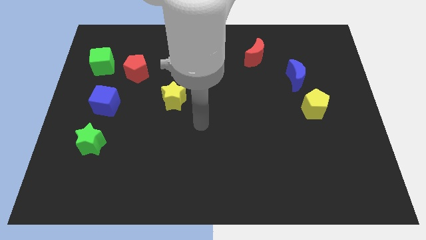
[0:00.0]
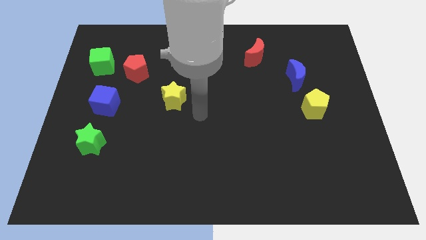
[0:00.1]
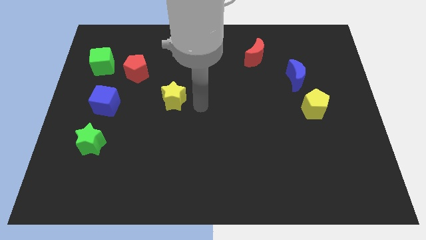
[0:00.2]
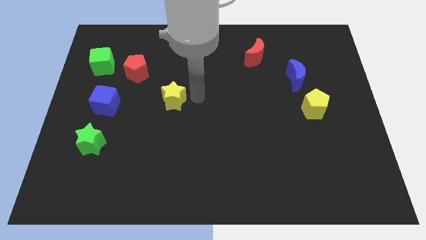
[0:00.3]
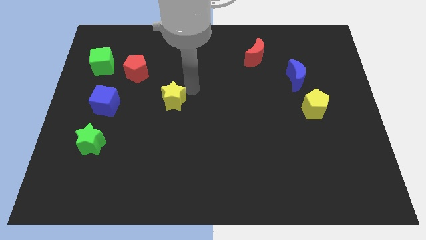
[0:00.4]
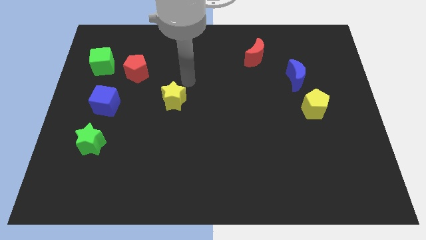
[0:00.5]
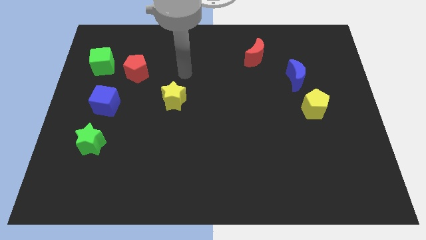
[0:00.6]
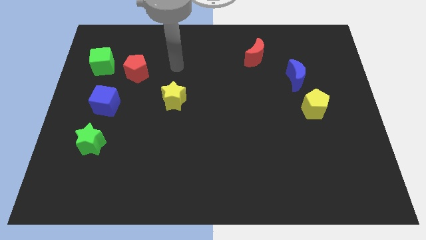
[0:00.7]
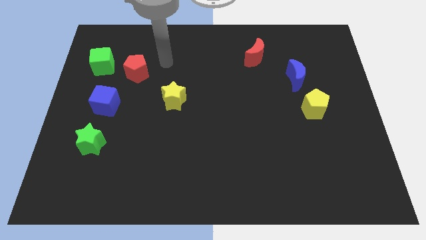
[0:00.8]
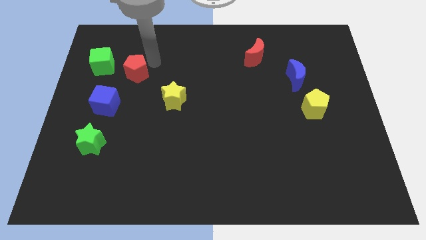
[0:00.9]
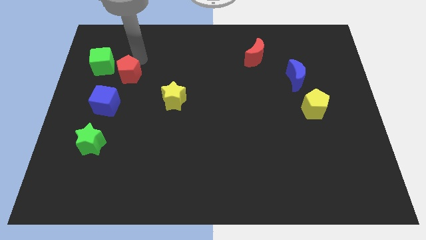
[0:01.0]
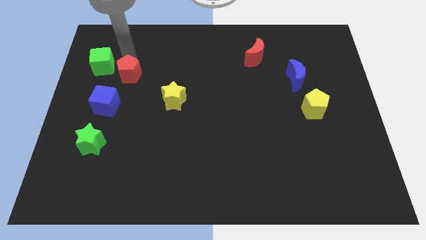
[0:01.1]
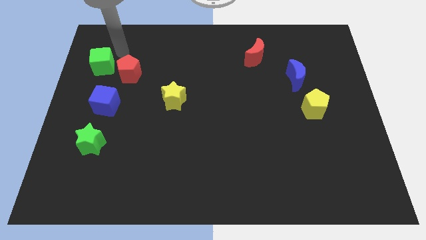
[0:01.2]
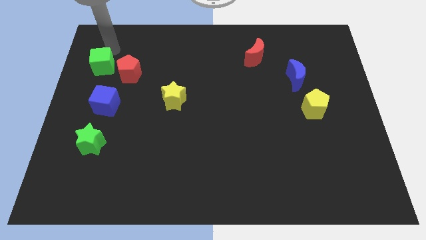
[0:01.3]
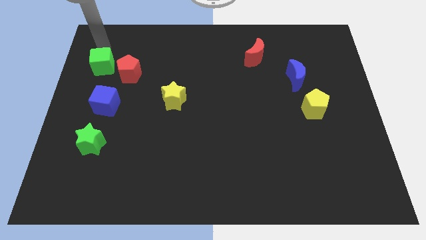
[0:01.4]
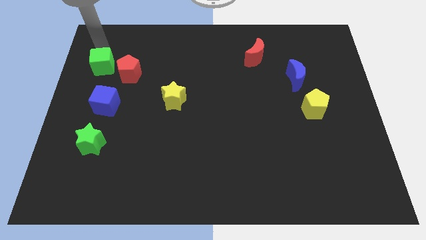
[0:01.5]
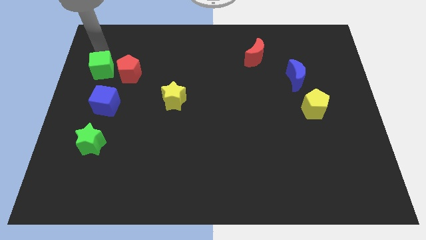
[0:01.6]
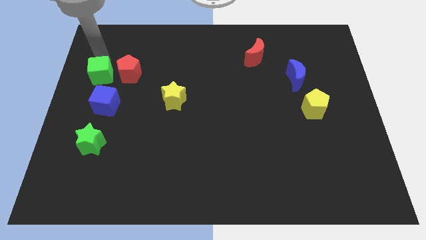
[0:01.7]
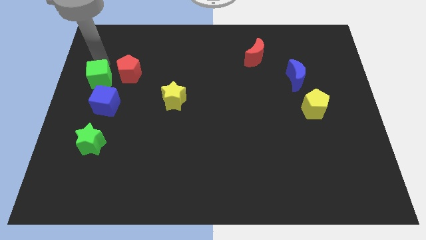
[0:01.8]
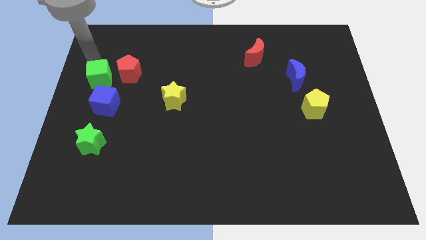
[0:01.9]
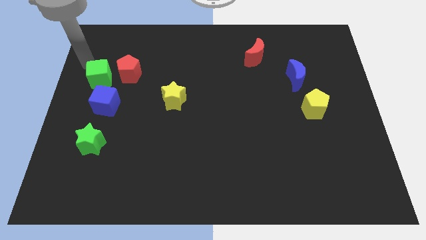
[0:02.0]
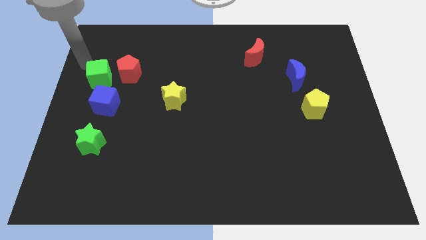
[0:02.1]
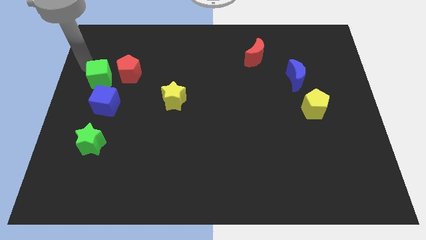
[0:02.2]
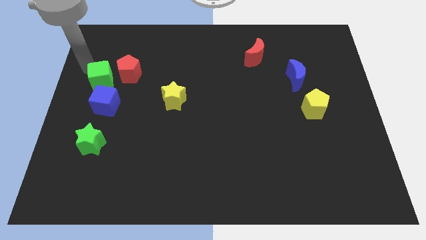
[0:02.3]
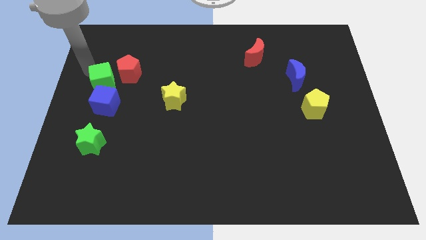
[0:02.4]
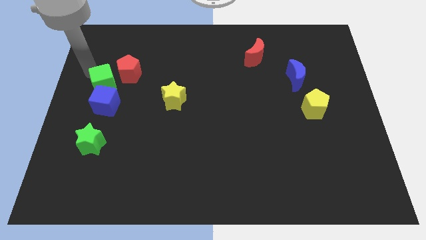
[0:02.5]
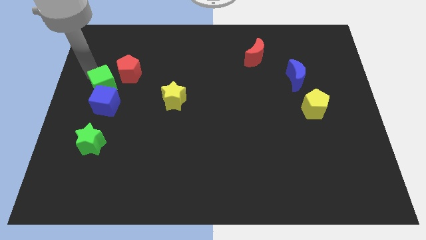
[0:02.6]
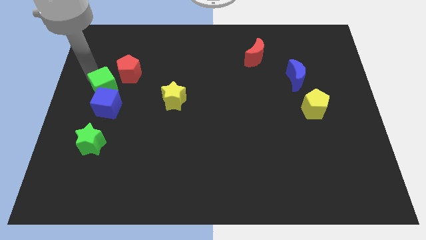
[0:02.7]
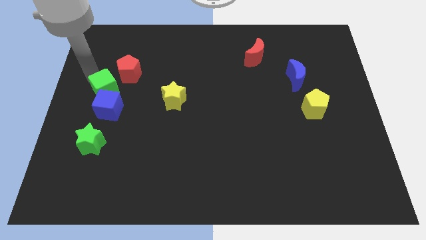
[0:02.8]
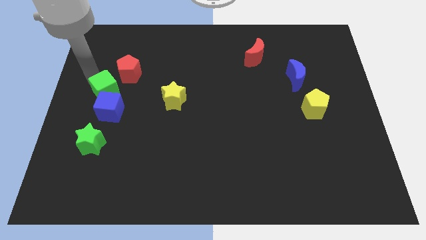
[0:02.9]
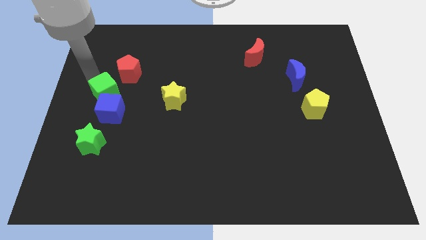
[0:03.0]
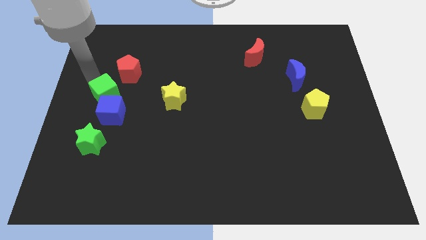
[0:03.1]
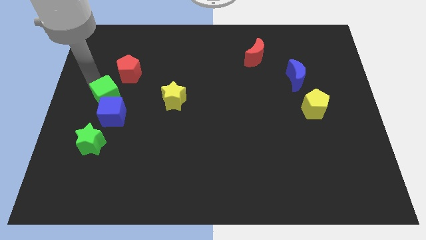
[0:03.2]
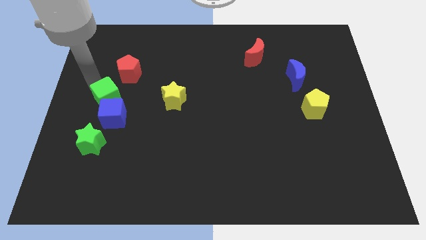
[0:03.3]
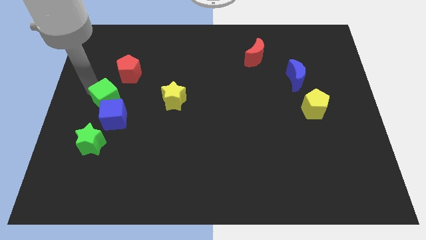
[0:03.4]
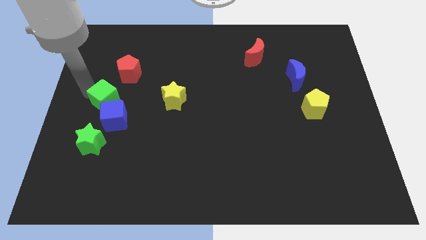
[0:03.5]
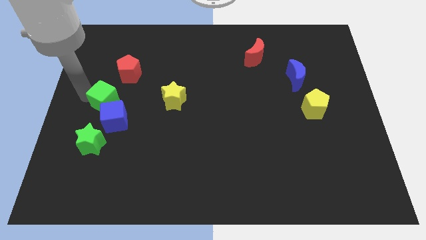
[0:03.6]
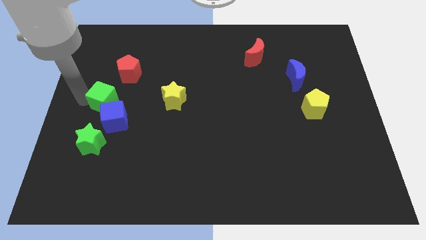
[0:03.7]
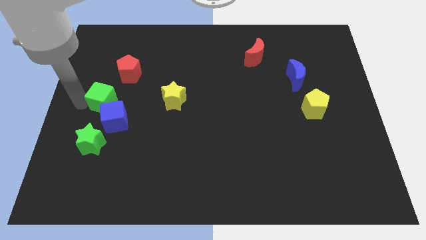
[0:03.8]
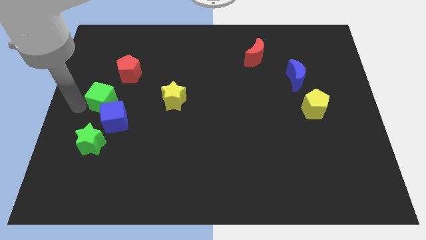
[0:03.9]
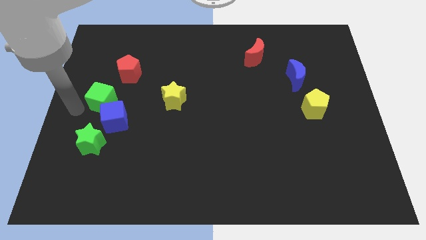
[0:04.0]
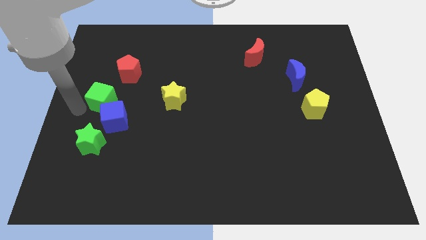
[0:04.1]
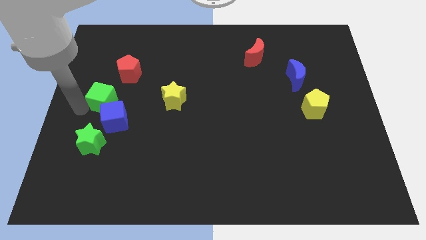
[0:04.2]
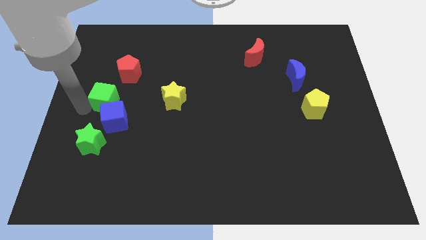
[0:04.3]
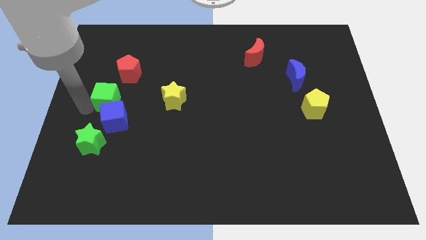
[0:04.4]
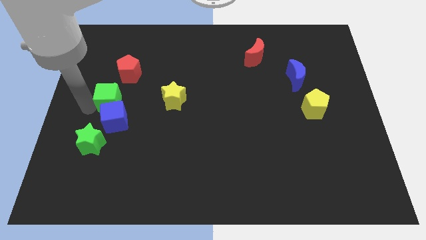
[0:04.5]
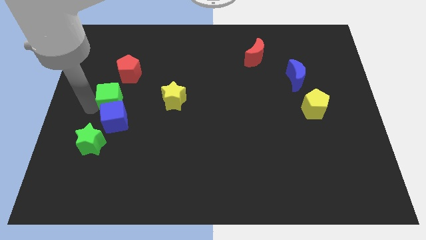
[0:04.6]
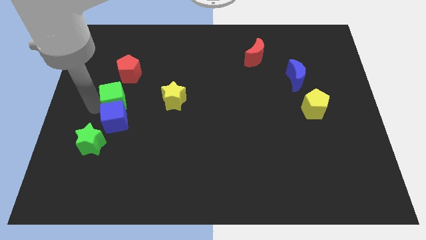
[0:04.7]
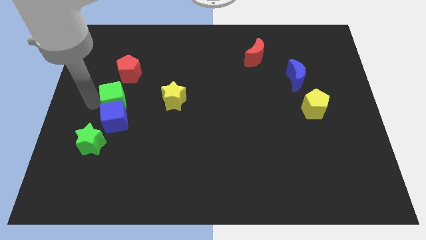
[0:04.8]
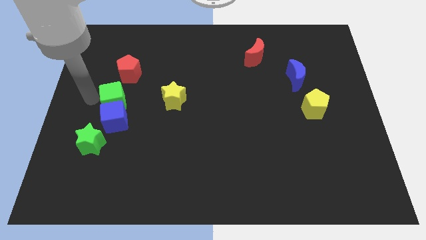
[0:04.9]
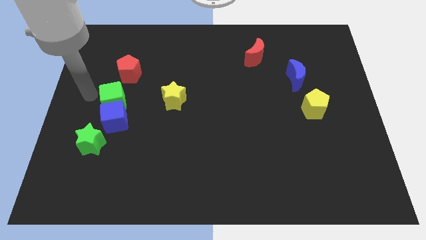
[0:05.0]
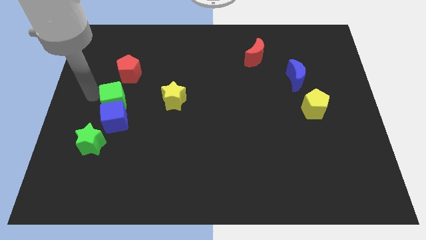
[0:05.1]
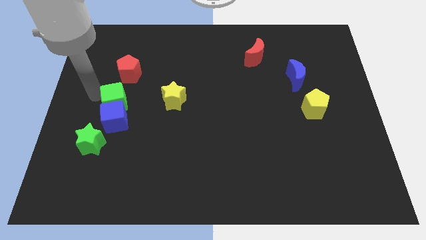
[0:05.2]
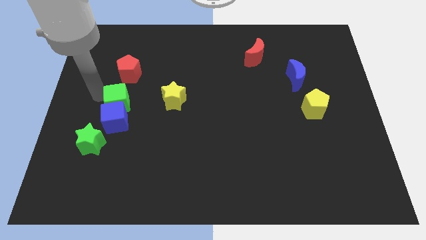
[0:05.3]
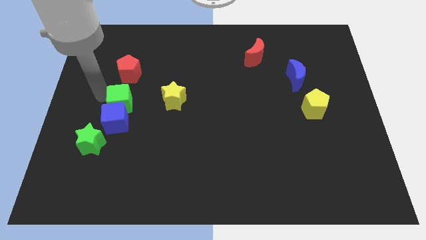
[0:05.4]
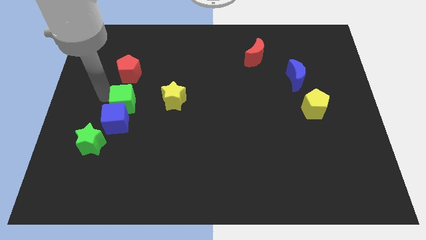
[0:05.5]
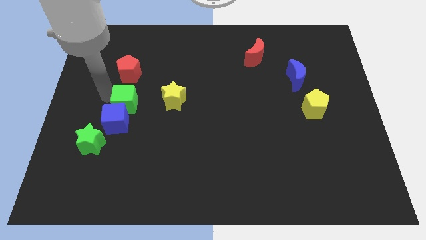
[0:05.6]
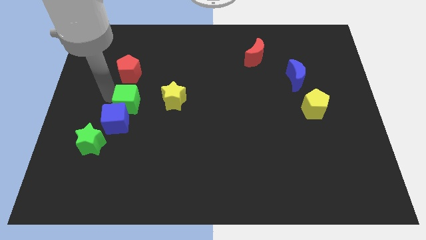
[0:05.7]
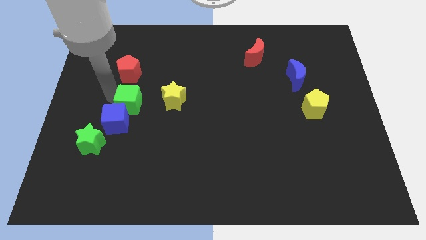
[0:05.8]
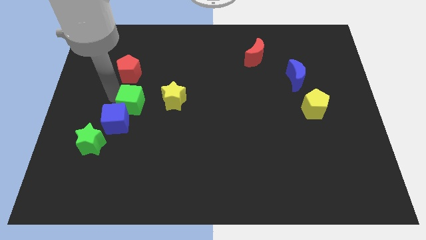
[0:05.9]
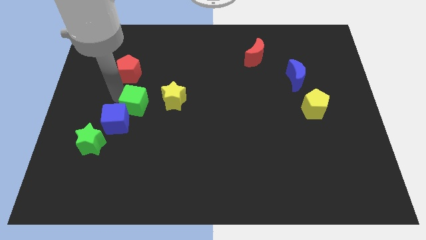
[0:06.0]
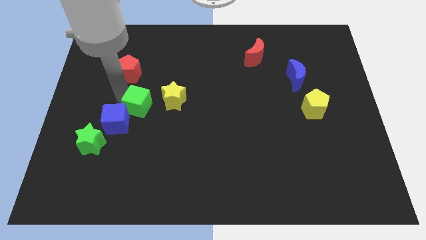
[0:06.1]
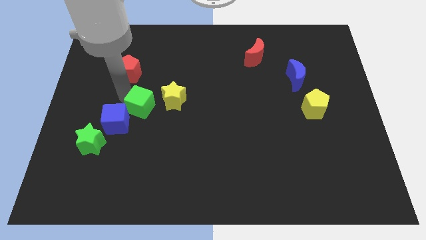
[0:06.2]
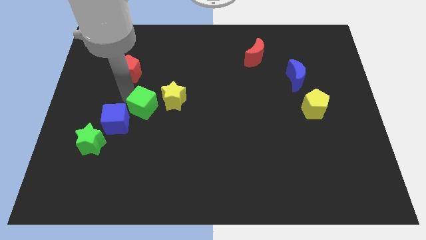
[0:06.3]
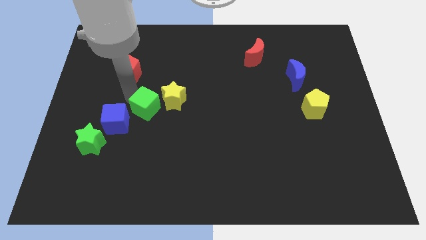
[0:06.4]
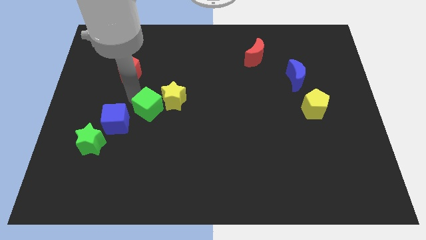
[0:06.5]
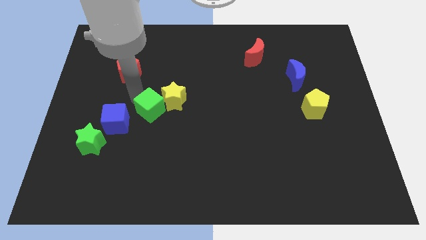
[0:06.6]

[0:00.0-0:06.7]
push the green cube downwards and right

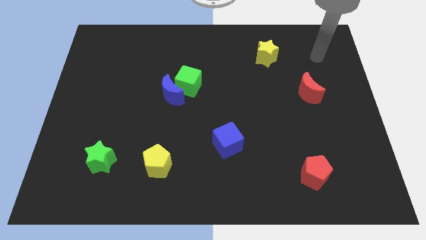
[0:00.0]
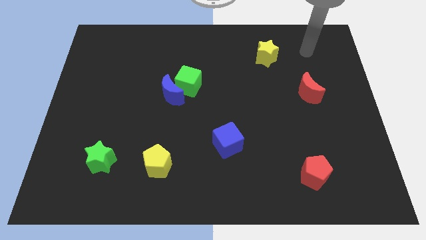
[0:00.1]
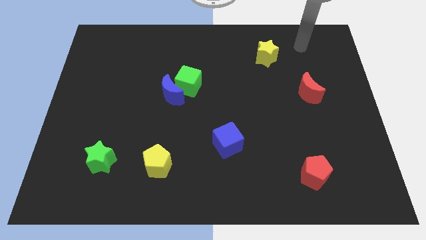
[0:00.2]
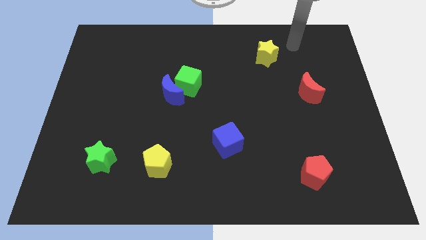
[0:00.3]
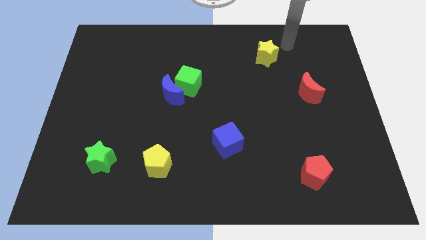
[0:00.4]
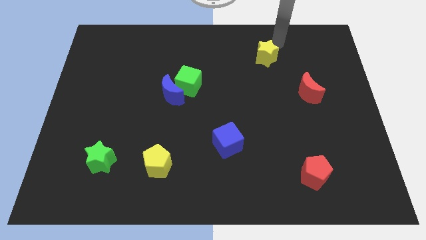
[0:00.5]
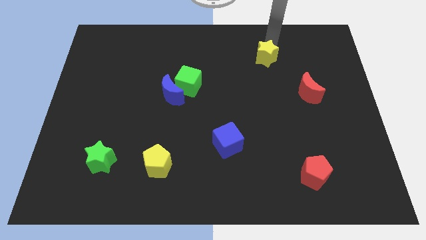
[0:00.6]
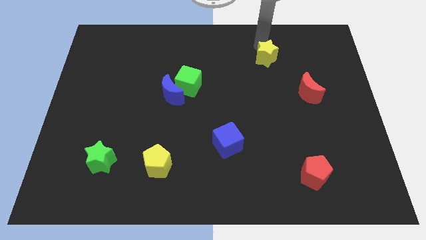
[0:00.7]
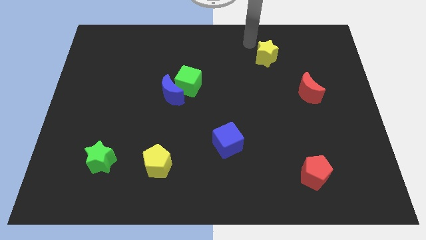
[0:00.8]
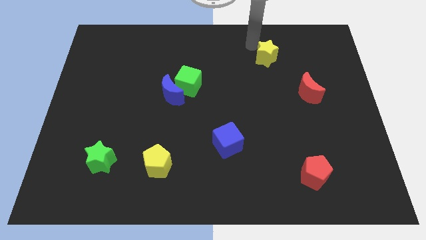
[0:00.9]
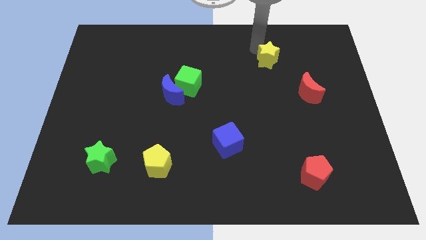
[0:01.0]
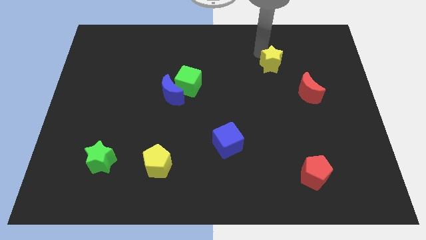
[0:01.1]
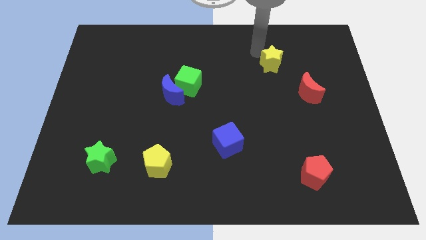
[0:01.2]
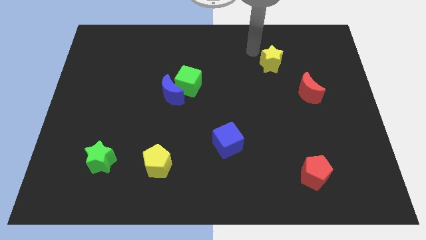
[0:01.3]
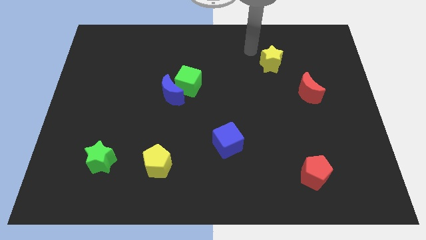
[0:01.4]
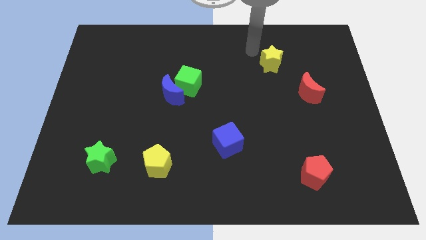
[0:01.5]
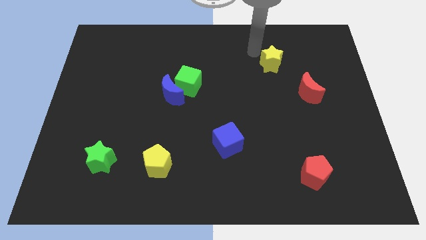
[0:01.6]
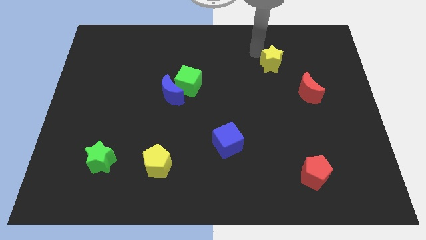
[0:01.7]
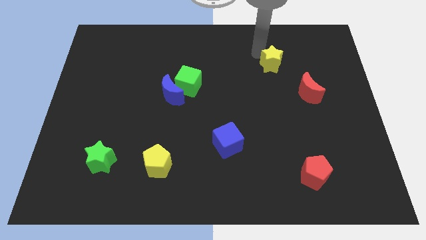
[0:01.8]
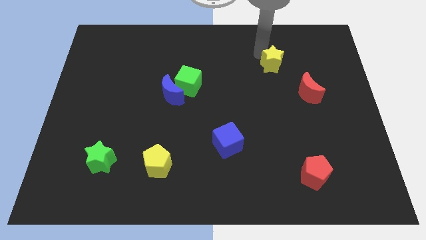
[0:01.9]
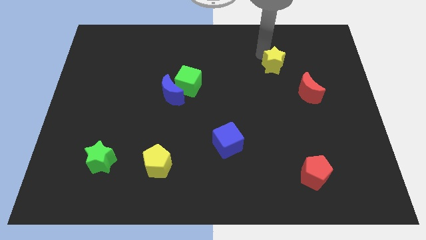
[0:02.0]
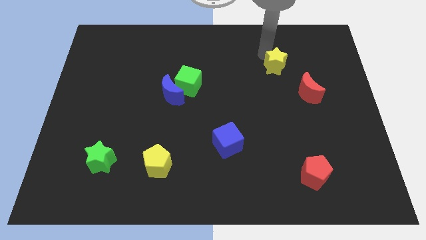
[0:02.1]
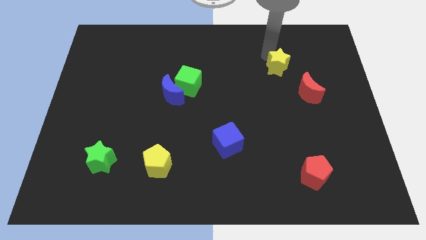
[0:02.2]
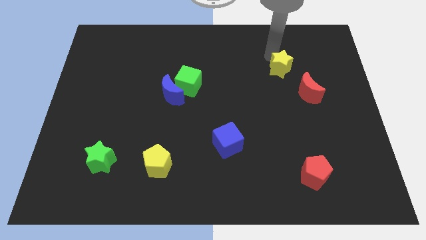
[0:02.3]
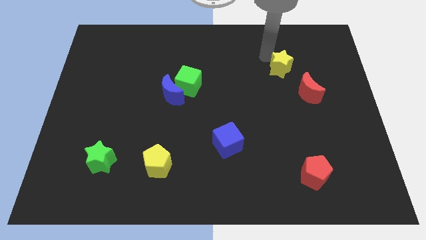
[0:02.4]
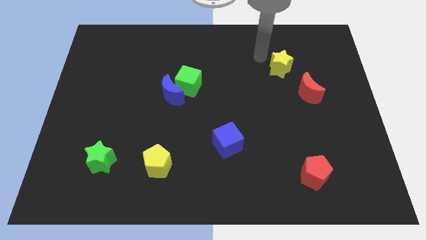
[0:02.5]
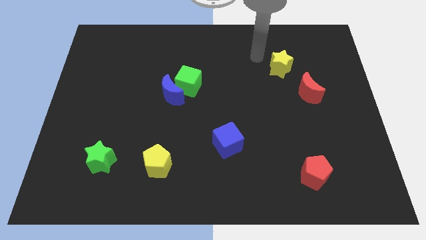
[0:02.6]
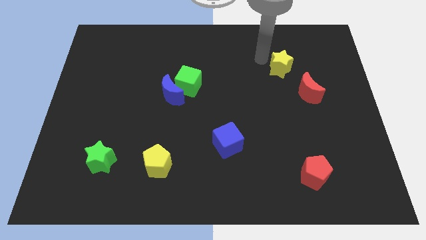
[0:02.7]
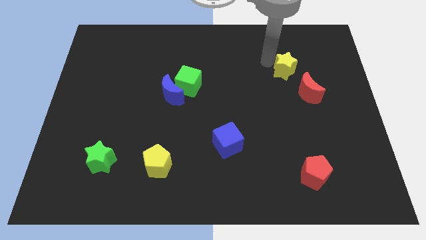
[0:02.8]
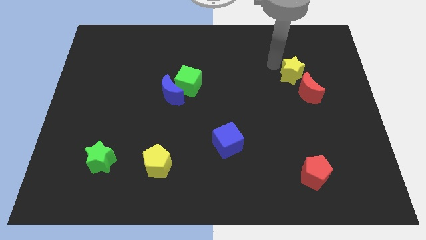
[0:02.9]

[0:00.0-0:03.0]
push the yellow star down and right diagonally a bit
